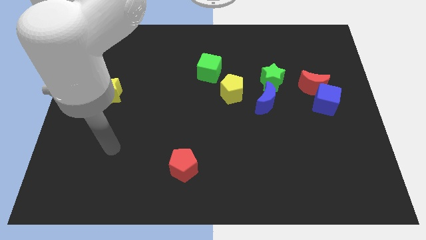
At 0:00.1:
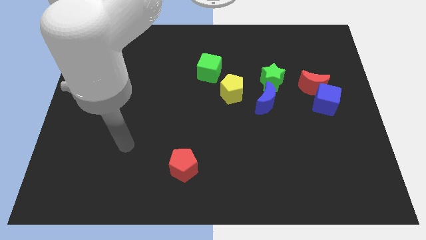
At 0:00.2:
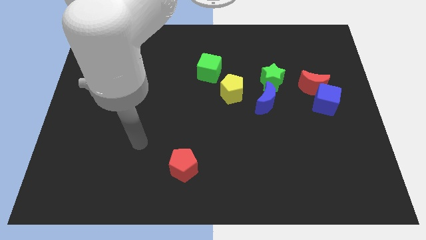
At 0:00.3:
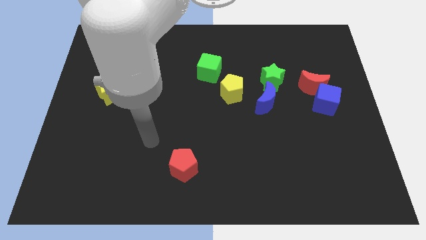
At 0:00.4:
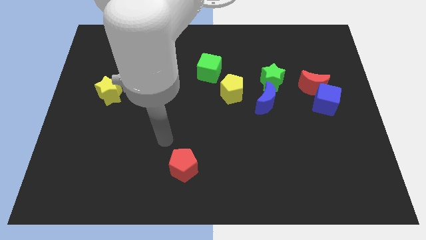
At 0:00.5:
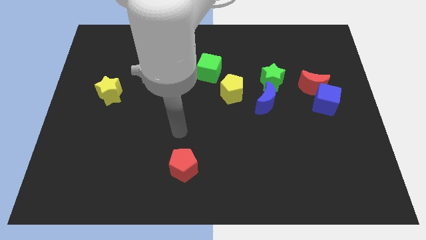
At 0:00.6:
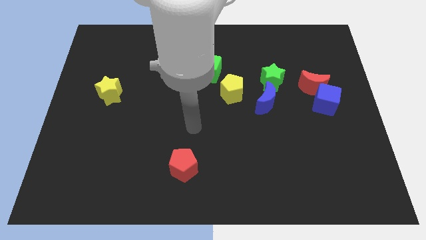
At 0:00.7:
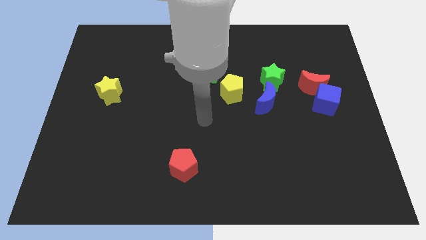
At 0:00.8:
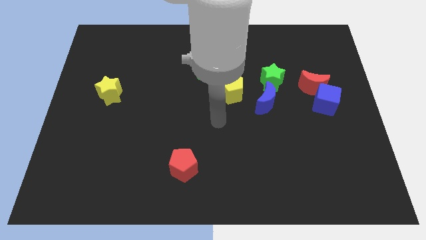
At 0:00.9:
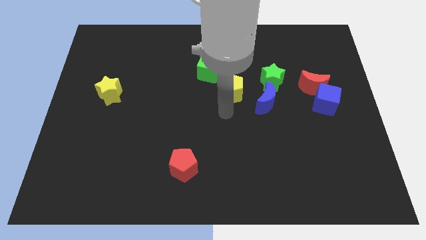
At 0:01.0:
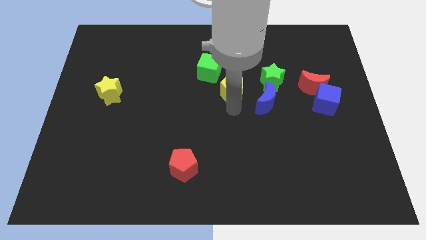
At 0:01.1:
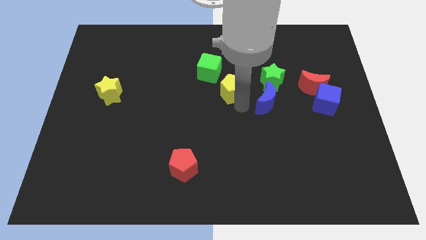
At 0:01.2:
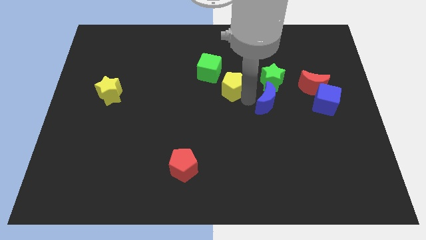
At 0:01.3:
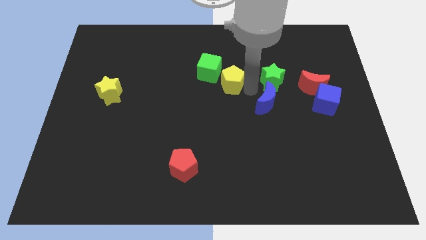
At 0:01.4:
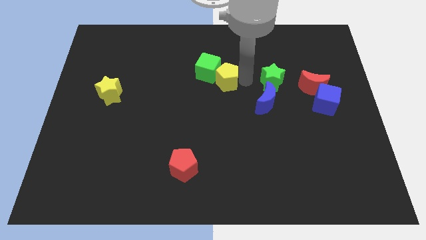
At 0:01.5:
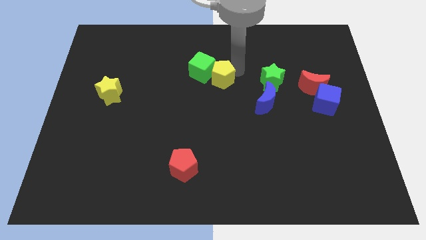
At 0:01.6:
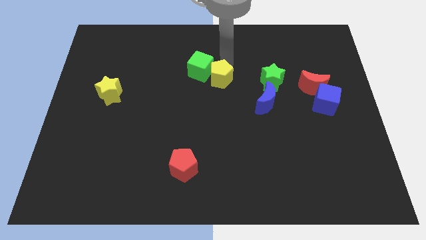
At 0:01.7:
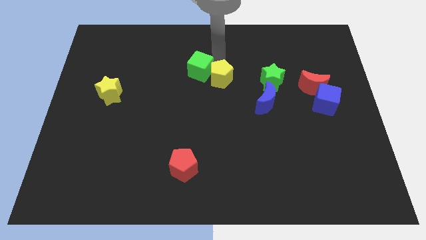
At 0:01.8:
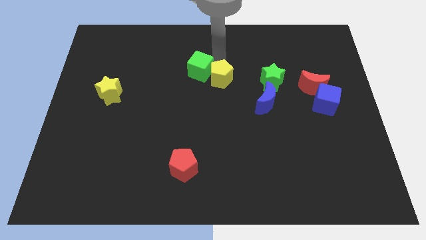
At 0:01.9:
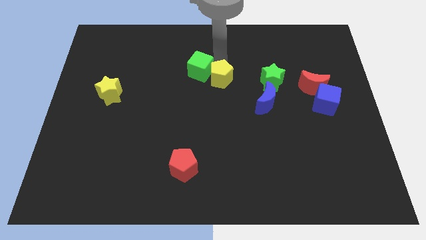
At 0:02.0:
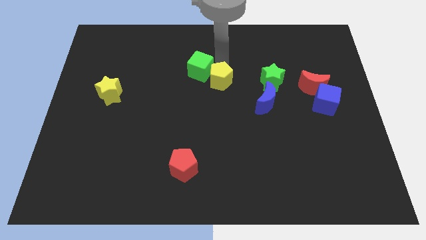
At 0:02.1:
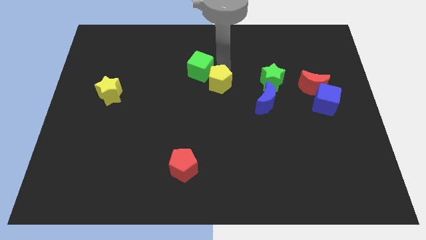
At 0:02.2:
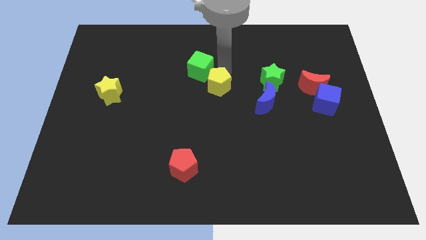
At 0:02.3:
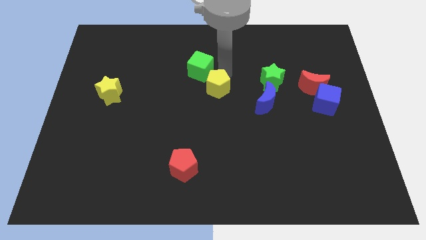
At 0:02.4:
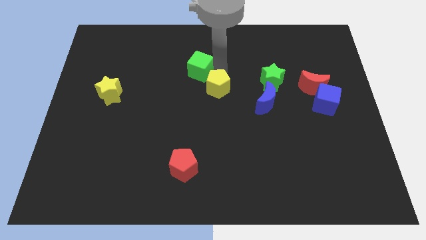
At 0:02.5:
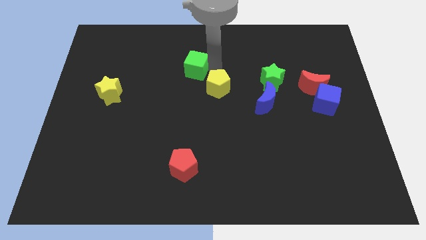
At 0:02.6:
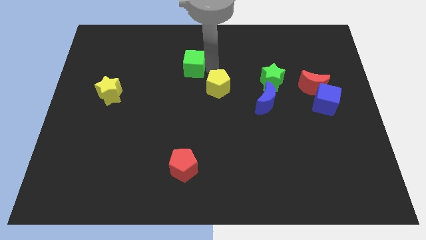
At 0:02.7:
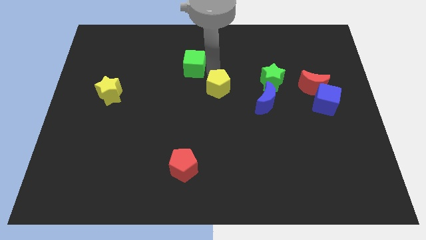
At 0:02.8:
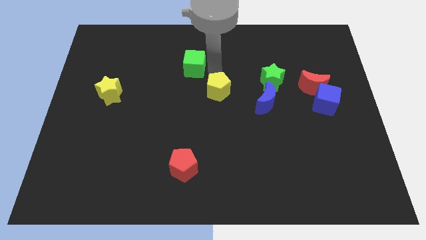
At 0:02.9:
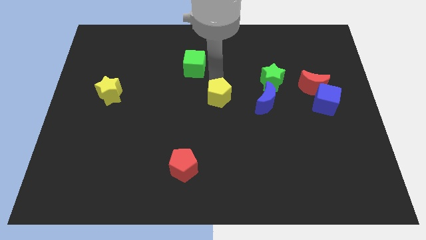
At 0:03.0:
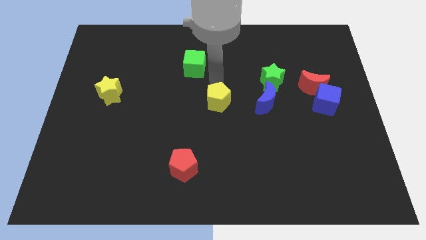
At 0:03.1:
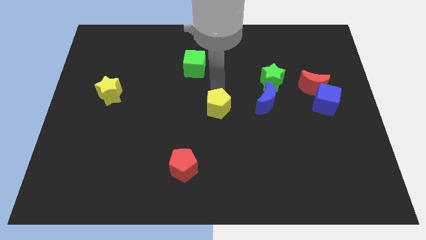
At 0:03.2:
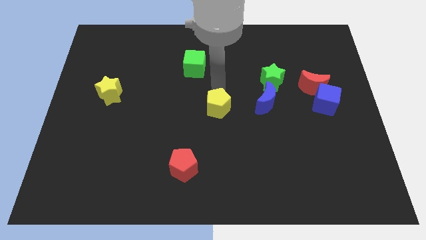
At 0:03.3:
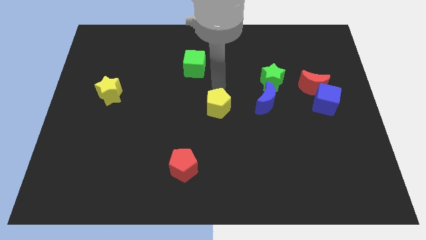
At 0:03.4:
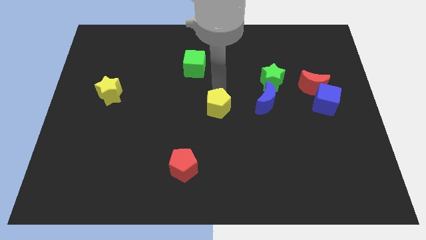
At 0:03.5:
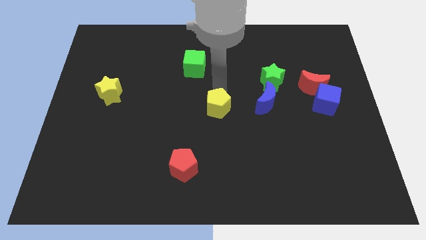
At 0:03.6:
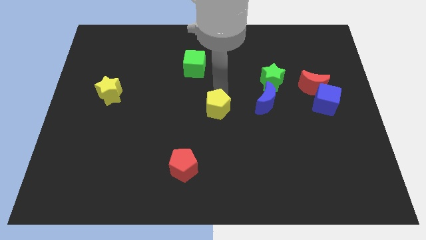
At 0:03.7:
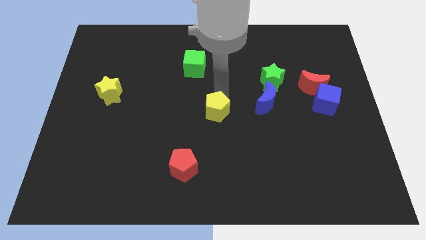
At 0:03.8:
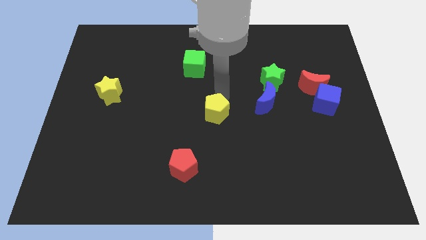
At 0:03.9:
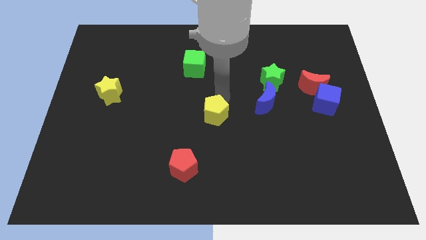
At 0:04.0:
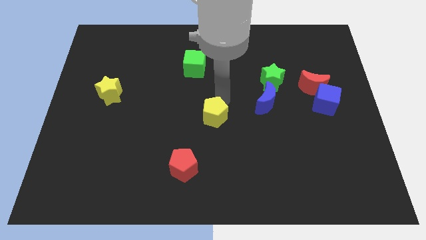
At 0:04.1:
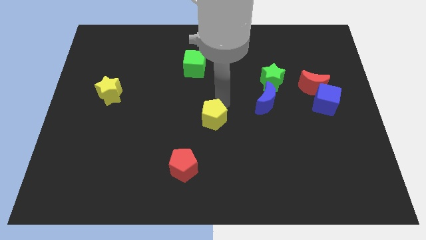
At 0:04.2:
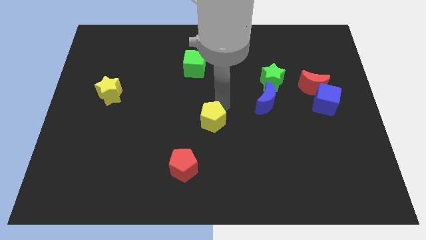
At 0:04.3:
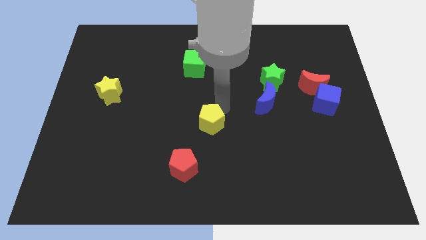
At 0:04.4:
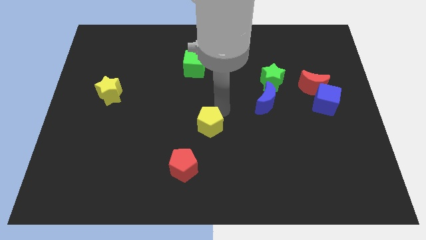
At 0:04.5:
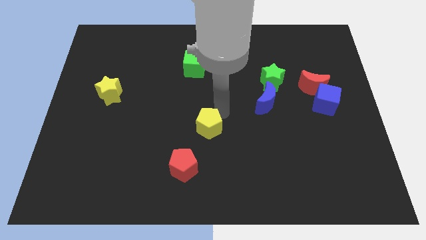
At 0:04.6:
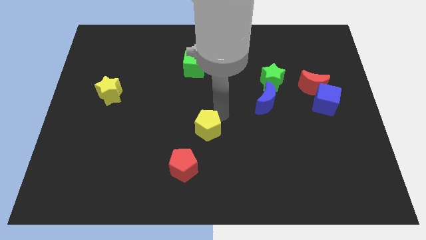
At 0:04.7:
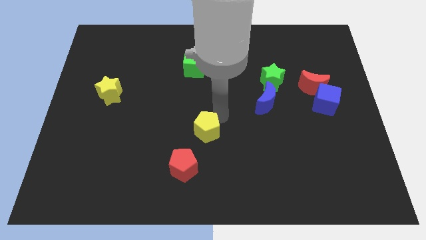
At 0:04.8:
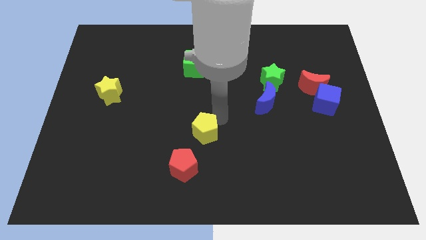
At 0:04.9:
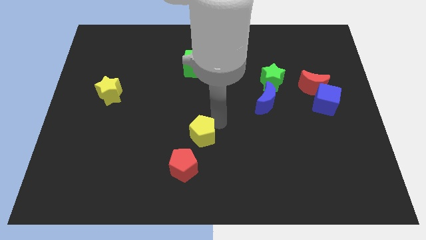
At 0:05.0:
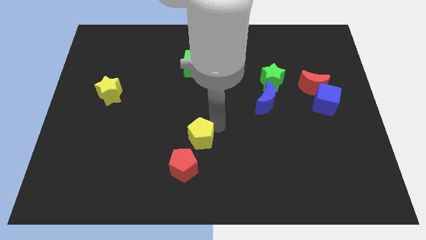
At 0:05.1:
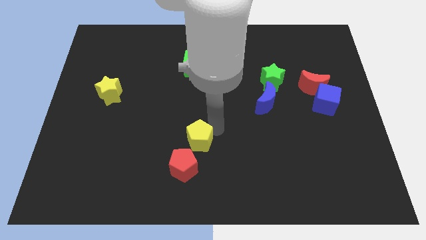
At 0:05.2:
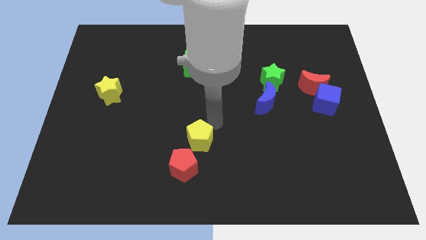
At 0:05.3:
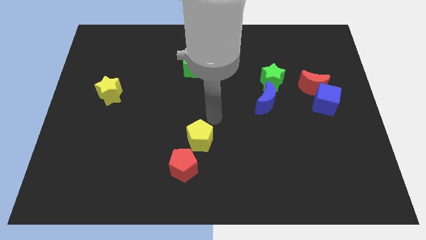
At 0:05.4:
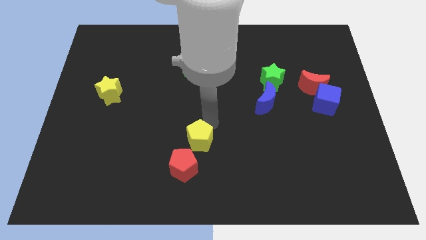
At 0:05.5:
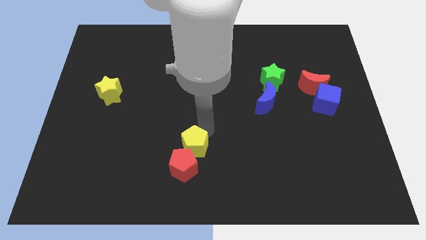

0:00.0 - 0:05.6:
push the yellow pentagon next to the red pentagon

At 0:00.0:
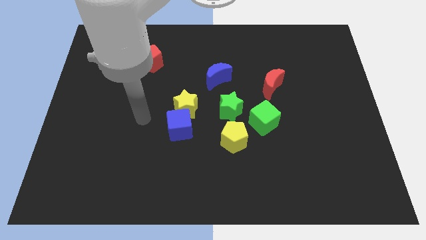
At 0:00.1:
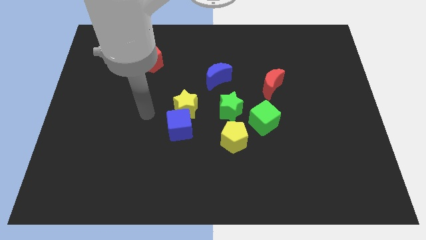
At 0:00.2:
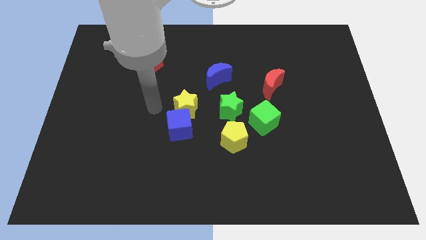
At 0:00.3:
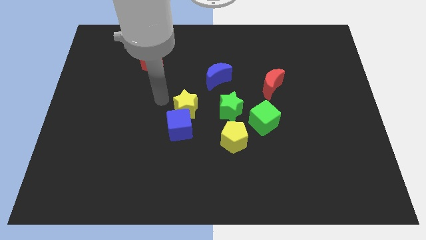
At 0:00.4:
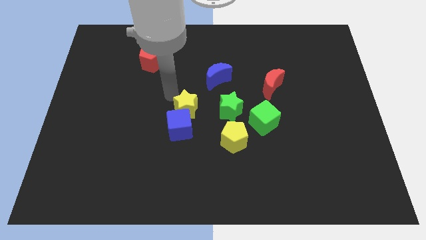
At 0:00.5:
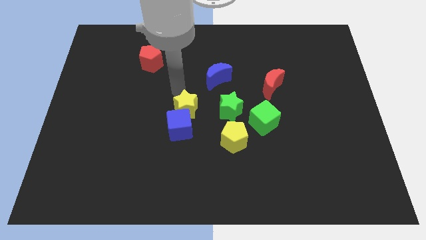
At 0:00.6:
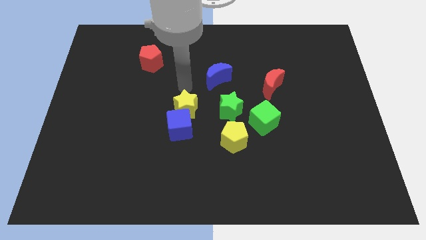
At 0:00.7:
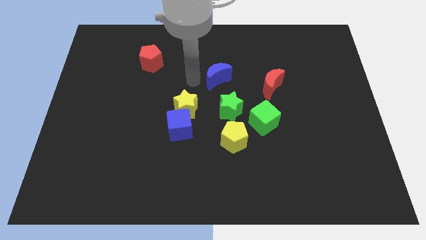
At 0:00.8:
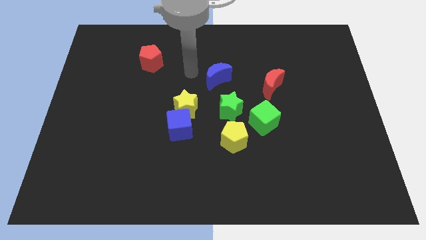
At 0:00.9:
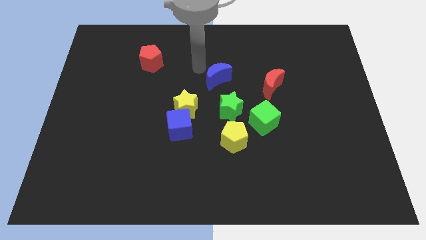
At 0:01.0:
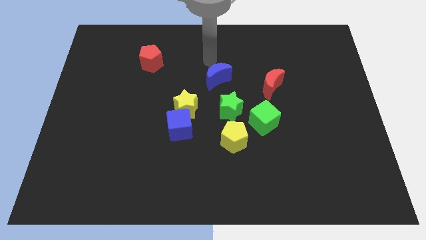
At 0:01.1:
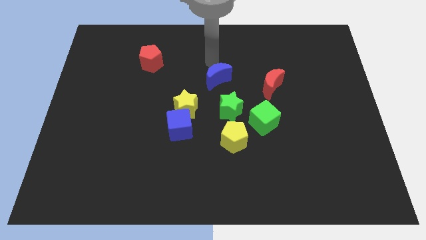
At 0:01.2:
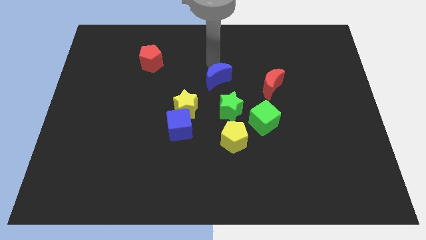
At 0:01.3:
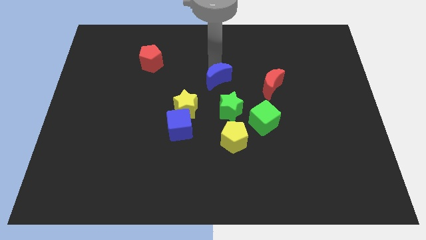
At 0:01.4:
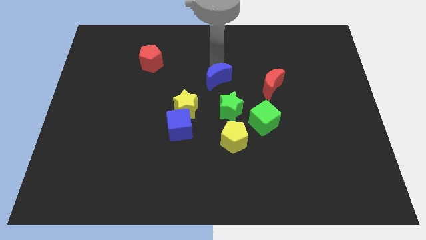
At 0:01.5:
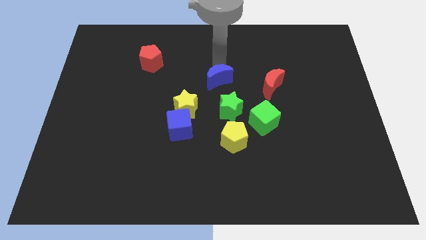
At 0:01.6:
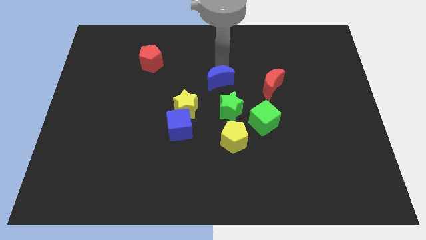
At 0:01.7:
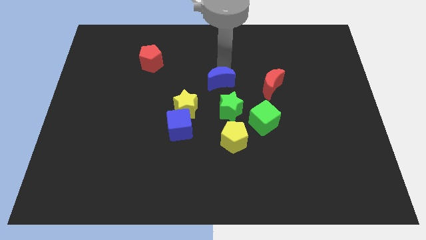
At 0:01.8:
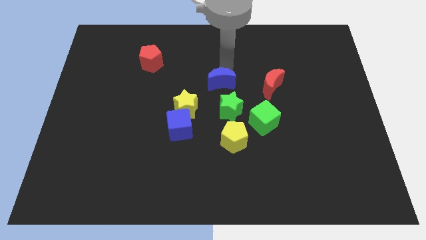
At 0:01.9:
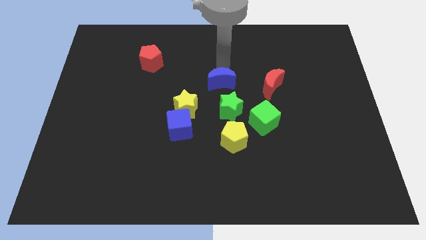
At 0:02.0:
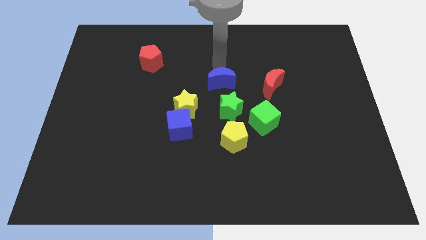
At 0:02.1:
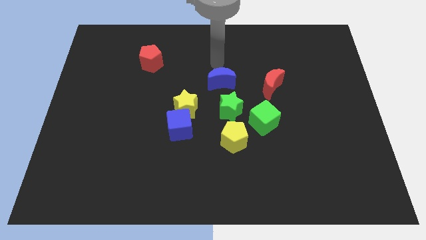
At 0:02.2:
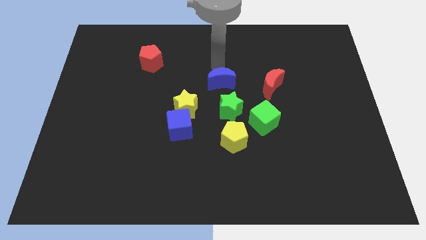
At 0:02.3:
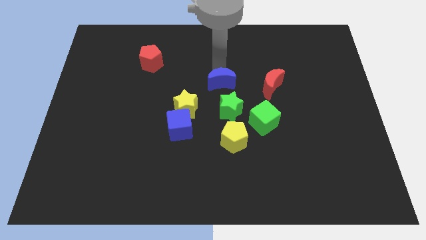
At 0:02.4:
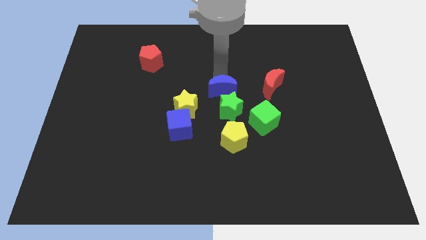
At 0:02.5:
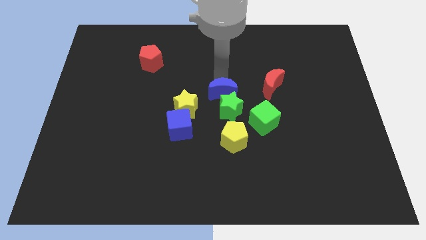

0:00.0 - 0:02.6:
put the blue moon to the green star

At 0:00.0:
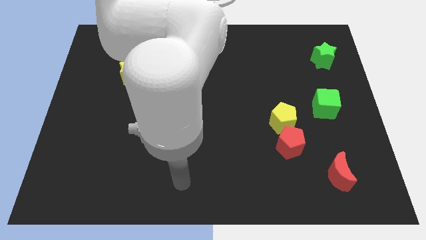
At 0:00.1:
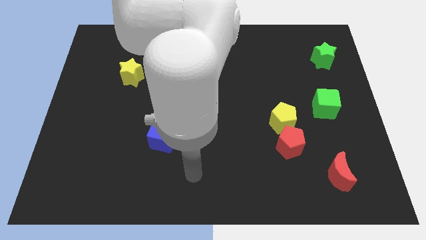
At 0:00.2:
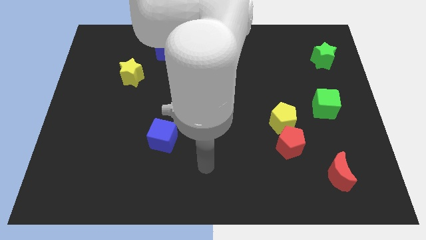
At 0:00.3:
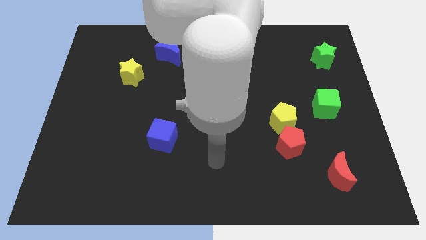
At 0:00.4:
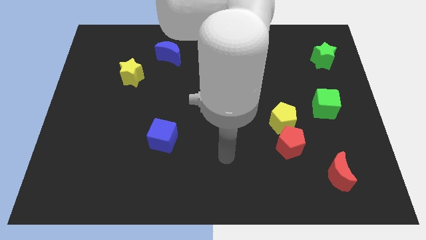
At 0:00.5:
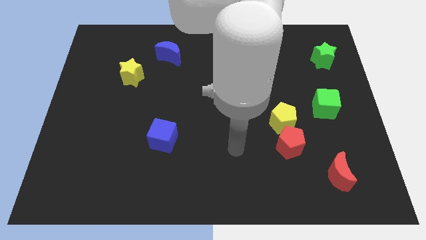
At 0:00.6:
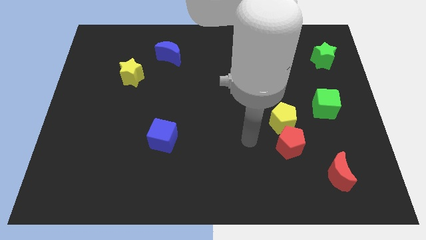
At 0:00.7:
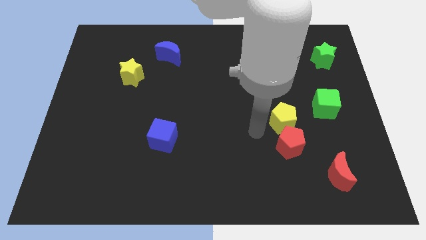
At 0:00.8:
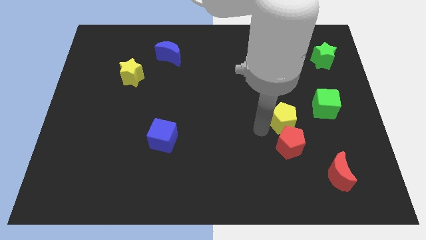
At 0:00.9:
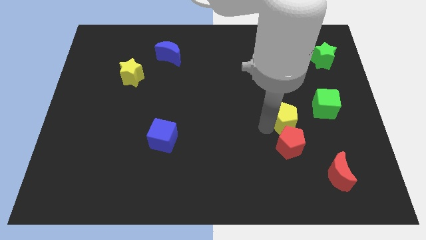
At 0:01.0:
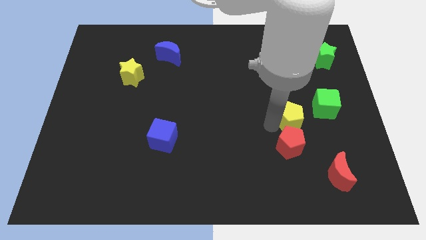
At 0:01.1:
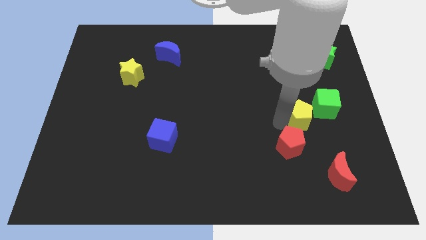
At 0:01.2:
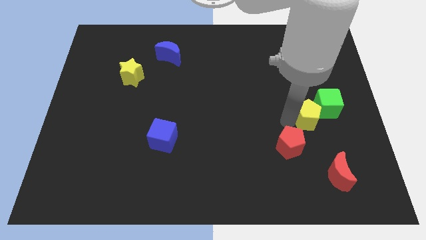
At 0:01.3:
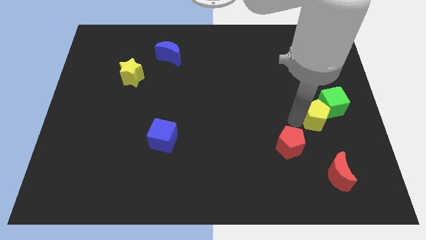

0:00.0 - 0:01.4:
move the yellow pentagon close to the green cube
